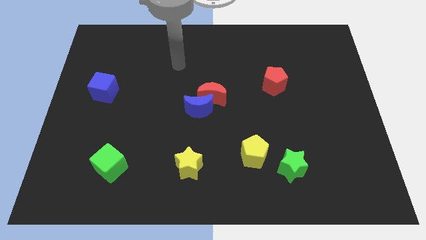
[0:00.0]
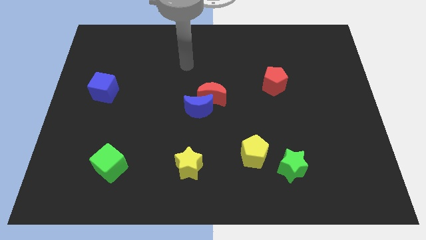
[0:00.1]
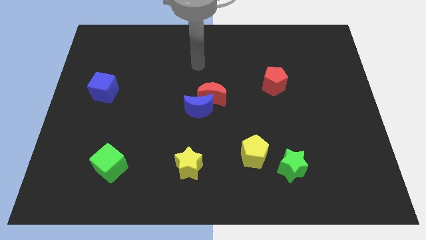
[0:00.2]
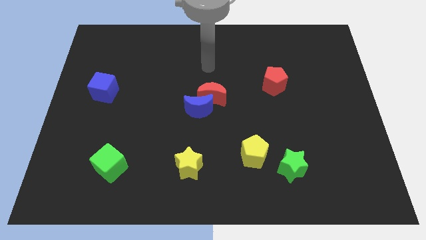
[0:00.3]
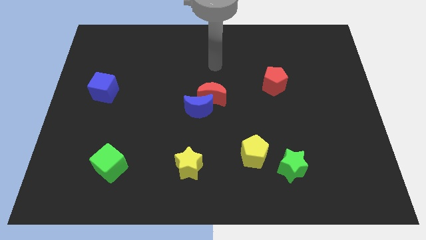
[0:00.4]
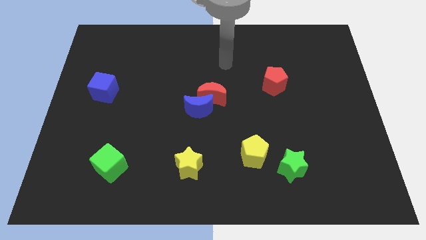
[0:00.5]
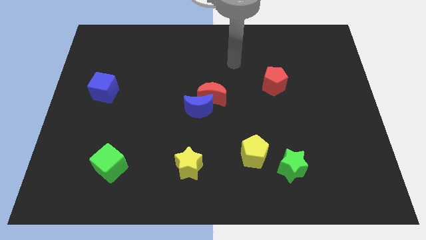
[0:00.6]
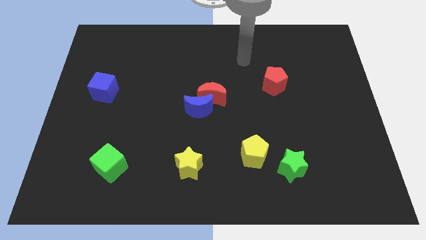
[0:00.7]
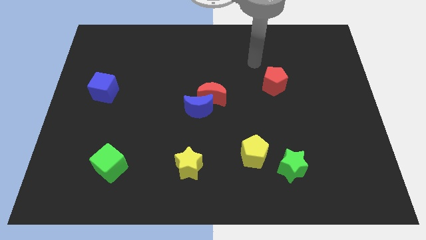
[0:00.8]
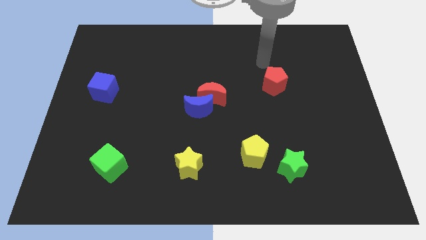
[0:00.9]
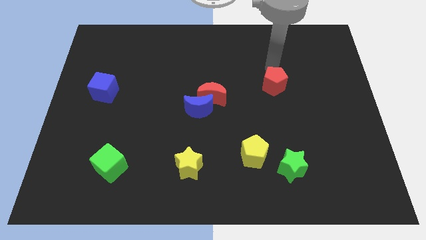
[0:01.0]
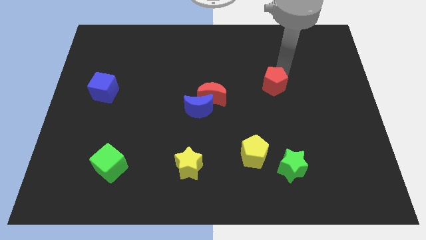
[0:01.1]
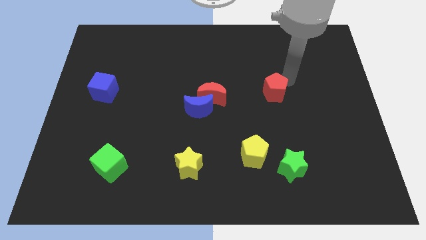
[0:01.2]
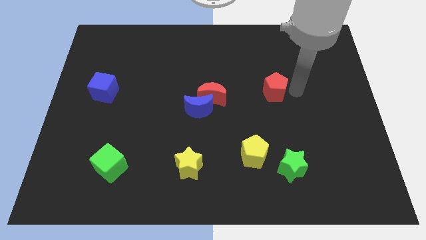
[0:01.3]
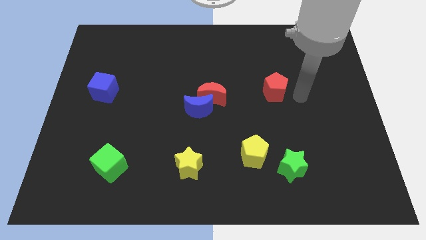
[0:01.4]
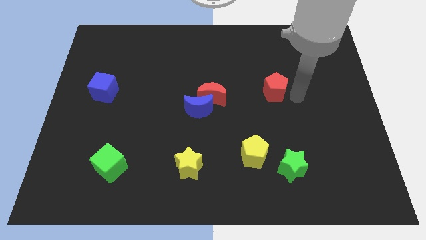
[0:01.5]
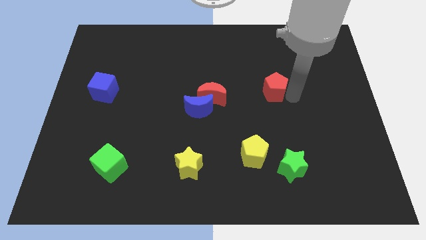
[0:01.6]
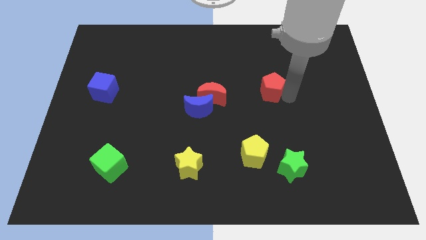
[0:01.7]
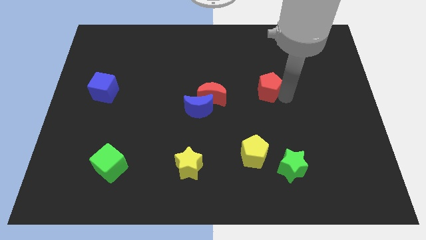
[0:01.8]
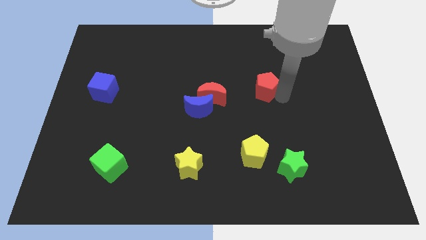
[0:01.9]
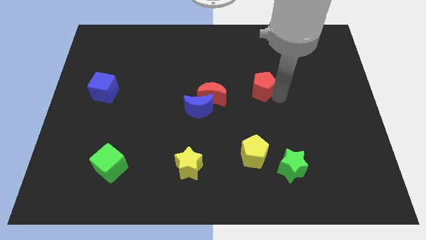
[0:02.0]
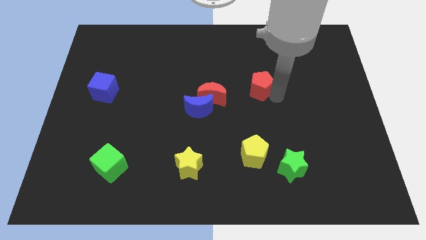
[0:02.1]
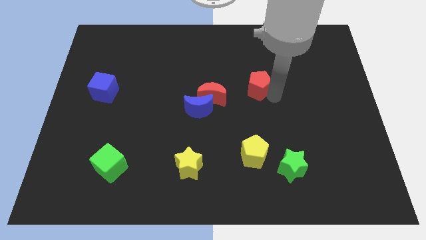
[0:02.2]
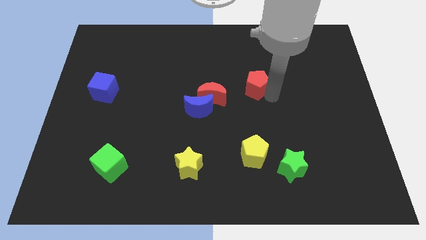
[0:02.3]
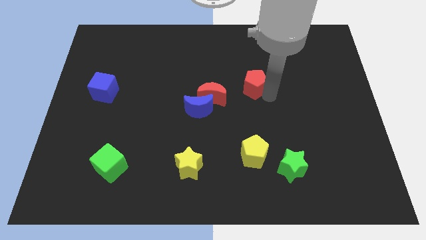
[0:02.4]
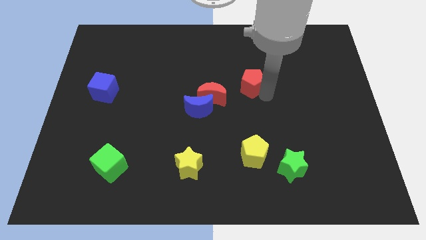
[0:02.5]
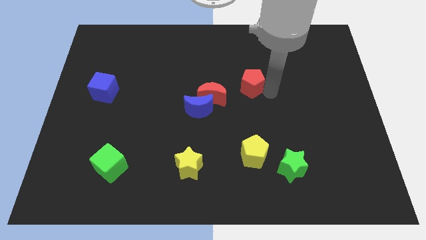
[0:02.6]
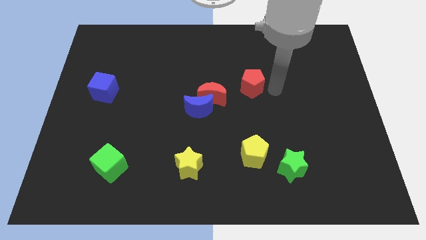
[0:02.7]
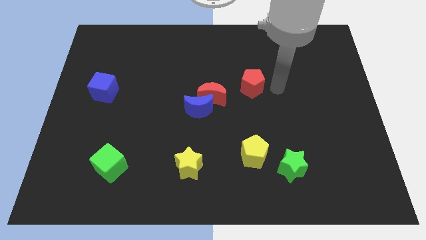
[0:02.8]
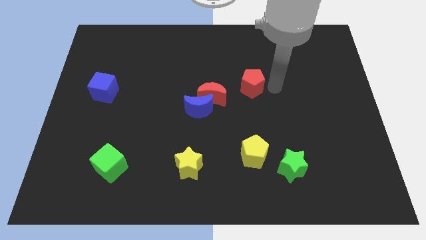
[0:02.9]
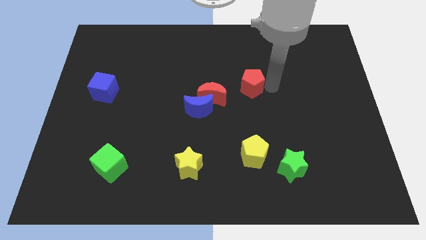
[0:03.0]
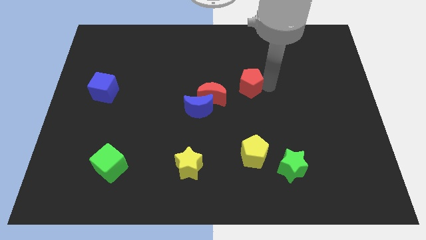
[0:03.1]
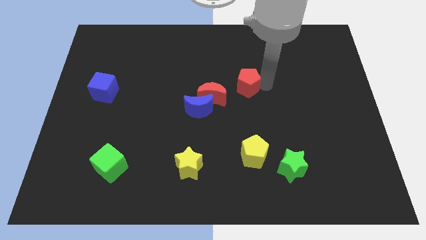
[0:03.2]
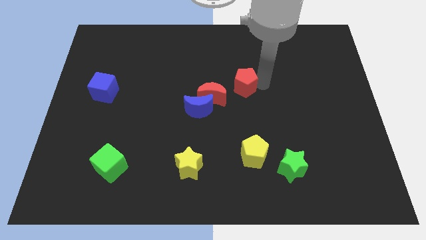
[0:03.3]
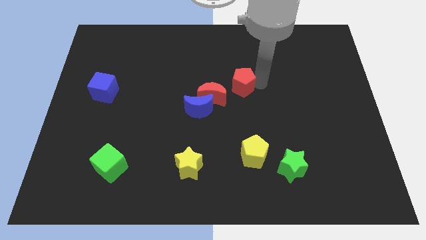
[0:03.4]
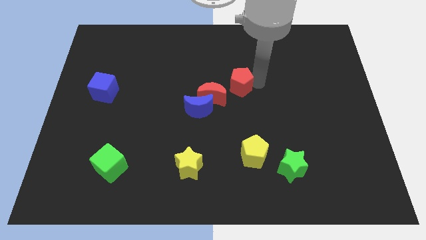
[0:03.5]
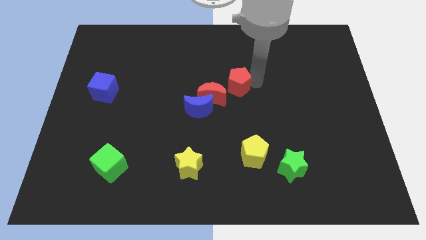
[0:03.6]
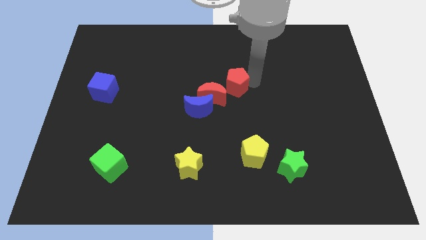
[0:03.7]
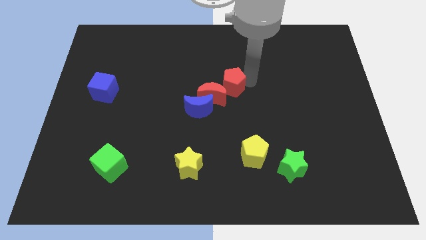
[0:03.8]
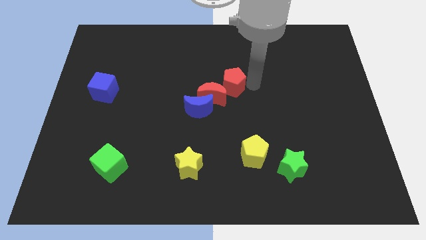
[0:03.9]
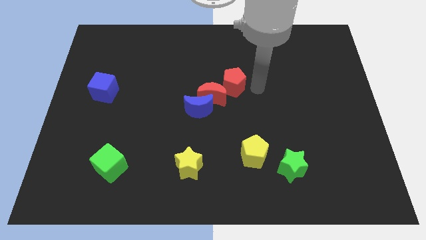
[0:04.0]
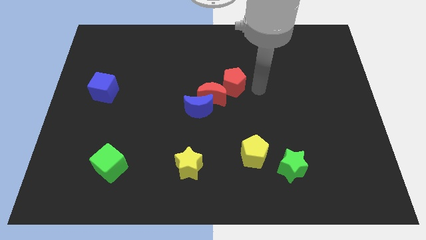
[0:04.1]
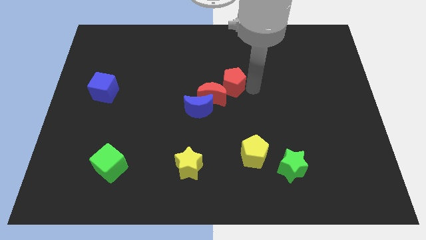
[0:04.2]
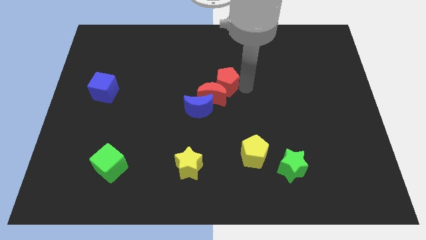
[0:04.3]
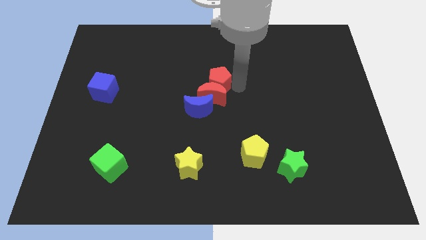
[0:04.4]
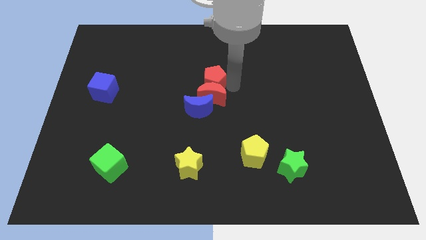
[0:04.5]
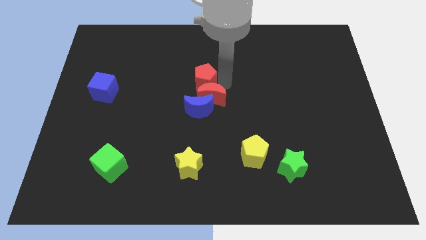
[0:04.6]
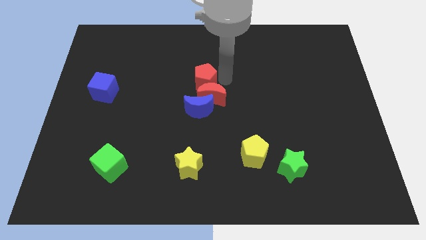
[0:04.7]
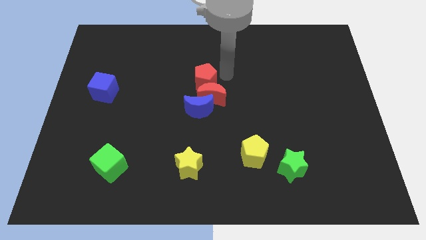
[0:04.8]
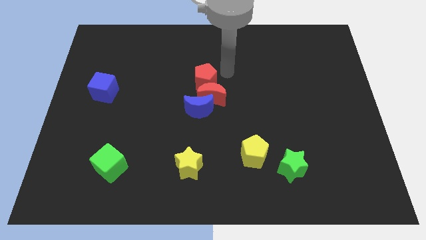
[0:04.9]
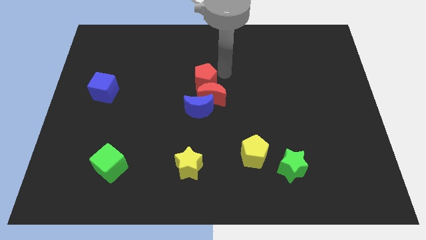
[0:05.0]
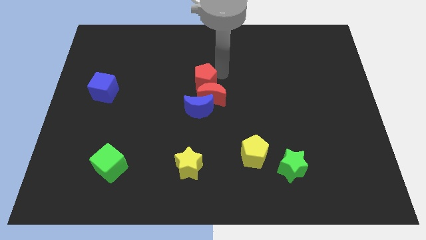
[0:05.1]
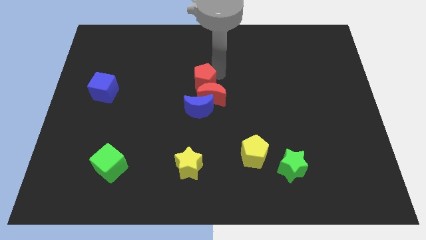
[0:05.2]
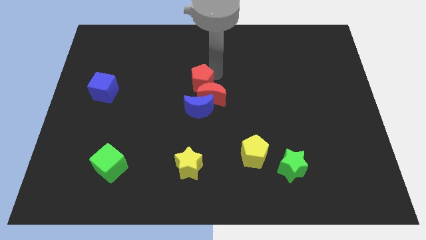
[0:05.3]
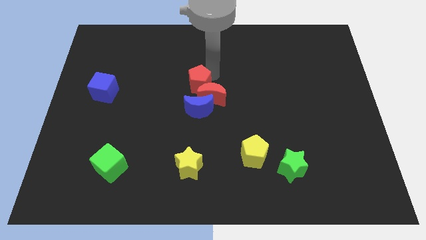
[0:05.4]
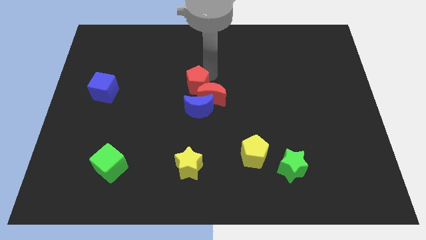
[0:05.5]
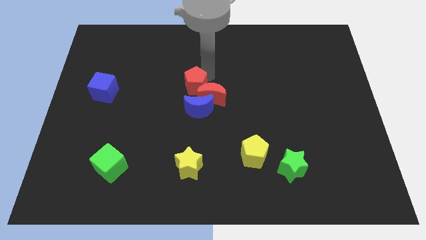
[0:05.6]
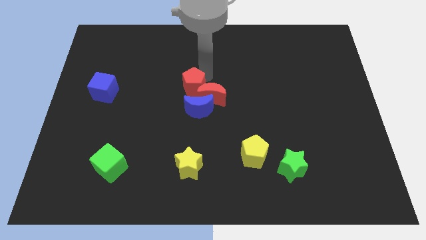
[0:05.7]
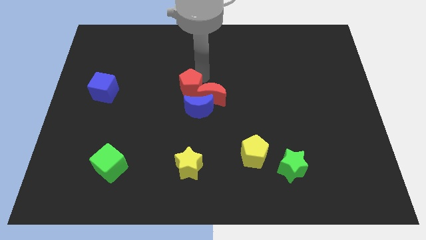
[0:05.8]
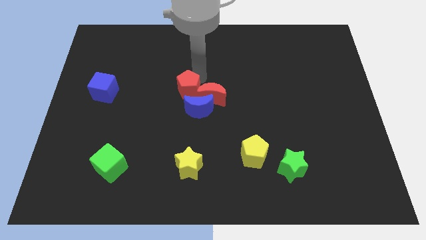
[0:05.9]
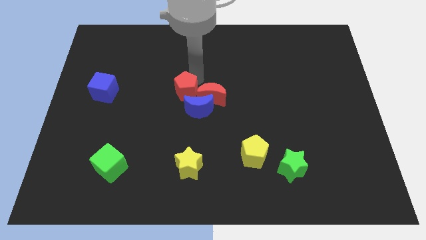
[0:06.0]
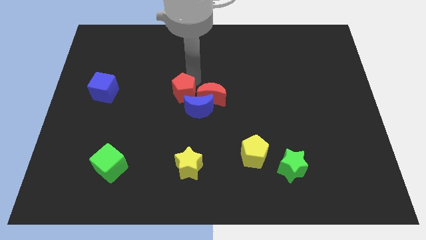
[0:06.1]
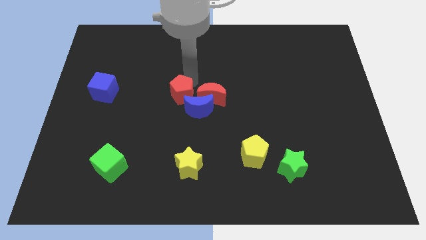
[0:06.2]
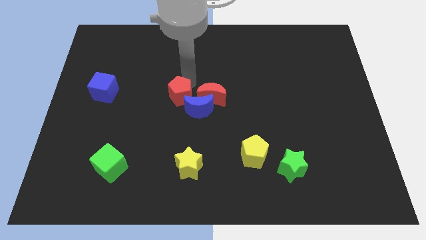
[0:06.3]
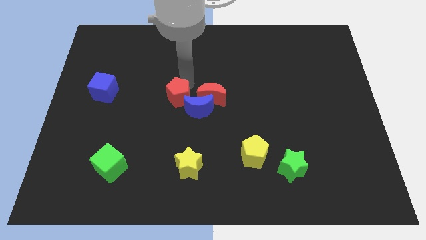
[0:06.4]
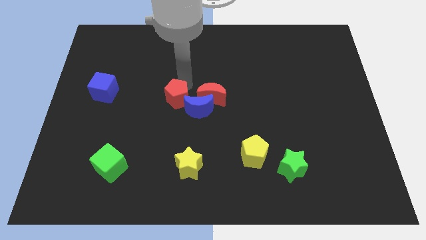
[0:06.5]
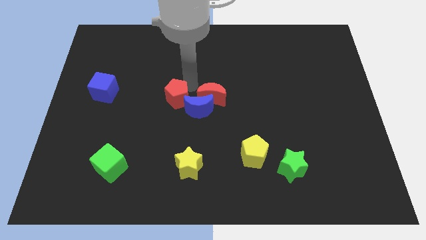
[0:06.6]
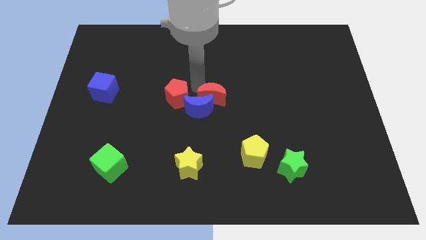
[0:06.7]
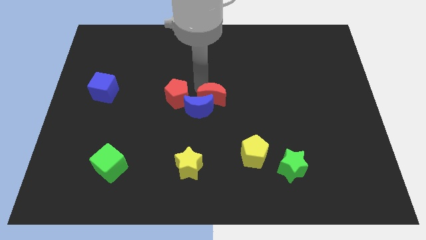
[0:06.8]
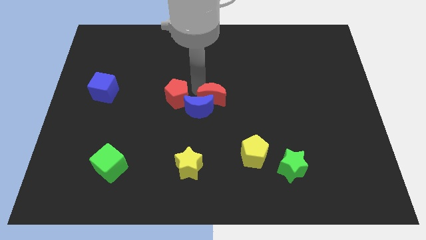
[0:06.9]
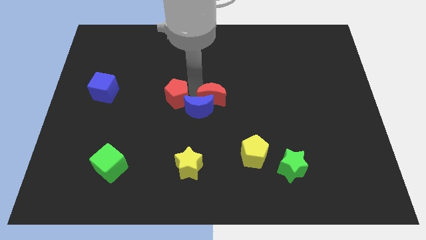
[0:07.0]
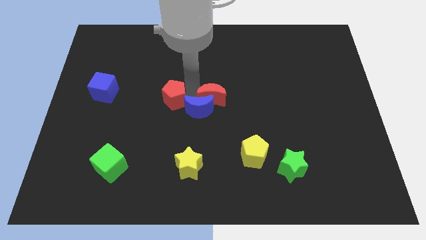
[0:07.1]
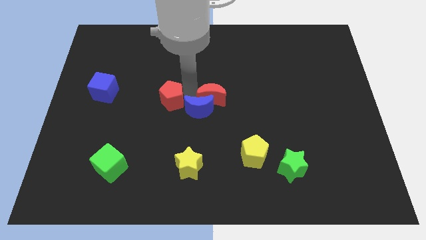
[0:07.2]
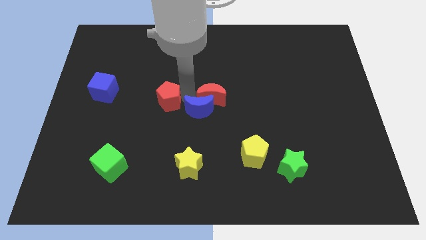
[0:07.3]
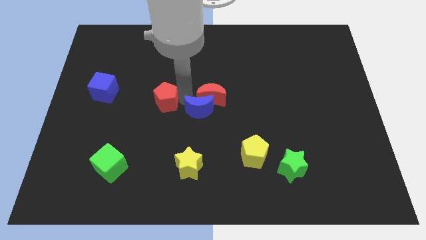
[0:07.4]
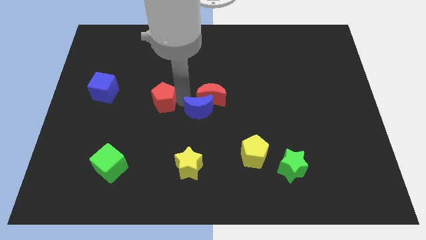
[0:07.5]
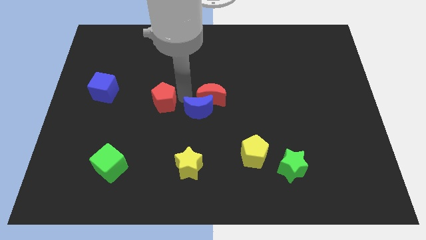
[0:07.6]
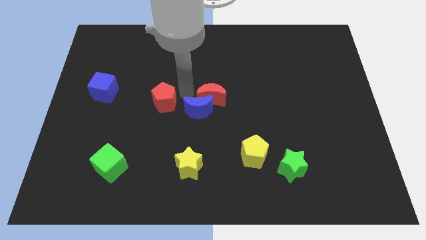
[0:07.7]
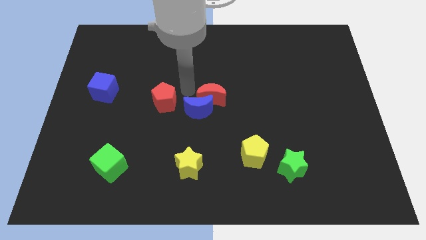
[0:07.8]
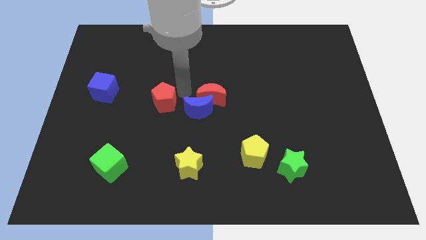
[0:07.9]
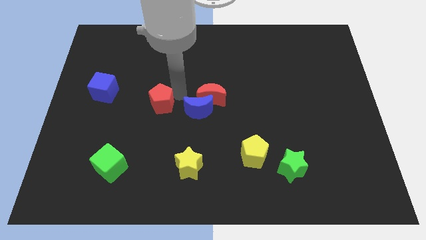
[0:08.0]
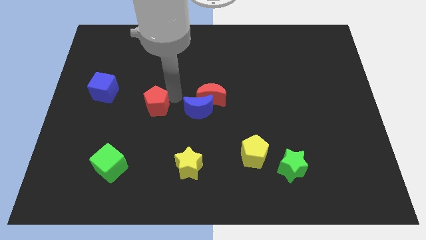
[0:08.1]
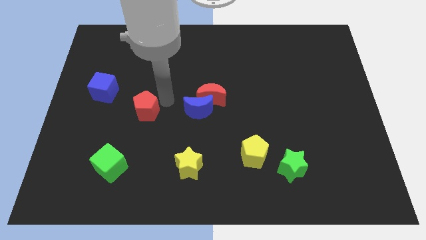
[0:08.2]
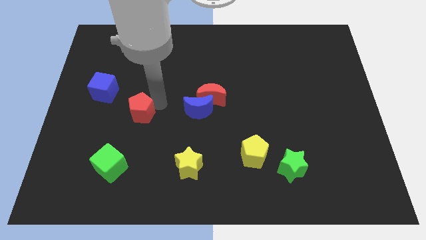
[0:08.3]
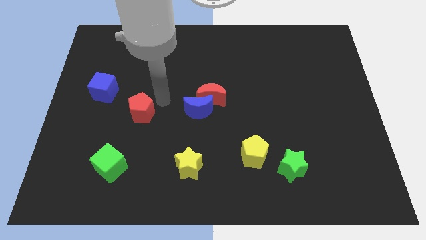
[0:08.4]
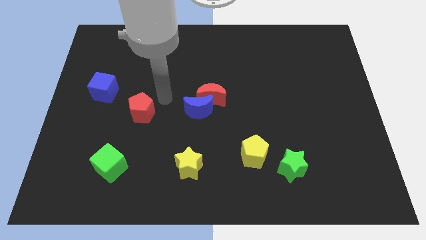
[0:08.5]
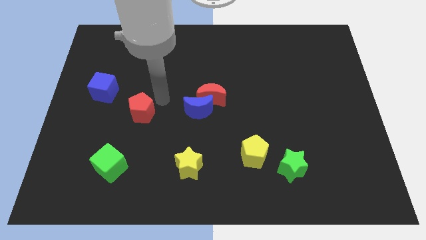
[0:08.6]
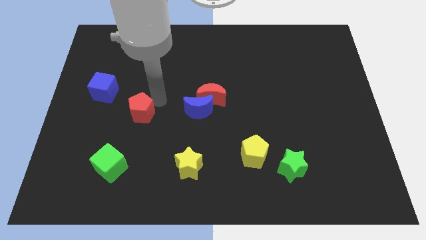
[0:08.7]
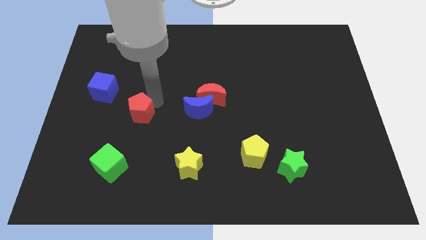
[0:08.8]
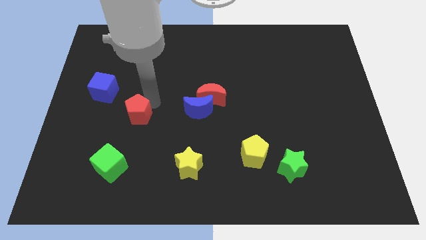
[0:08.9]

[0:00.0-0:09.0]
put the red pentagon above the green cube
